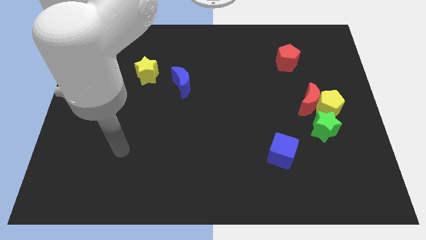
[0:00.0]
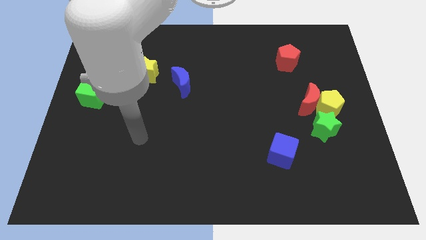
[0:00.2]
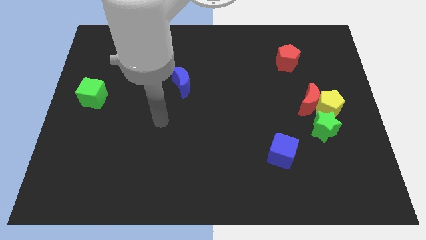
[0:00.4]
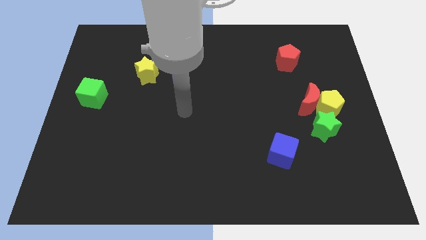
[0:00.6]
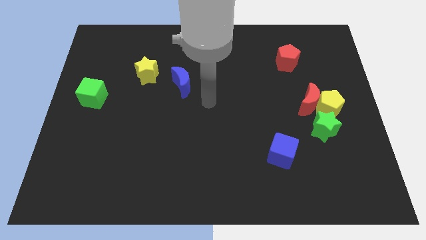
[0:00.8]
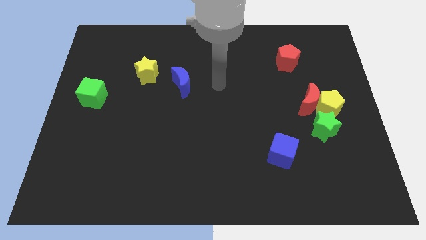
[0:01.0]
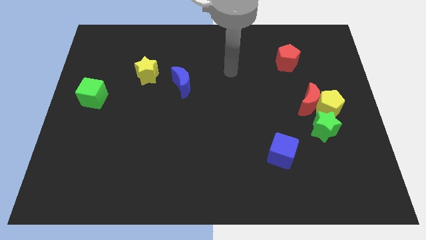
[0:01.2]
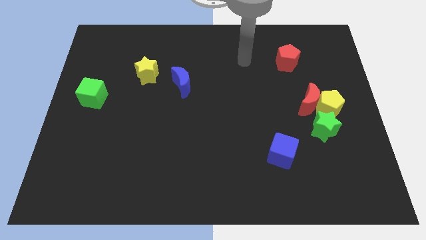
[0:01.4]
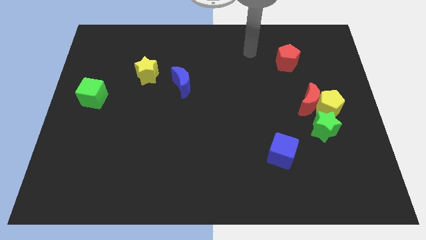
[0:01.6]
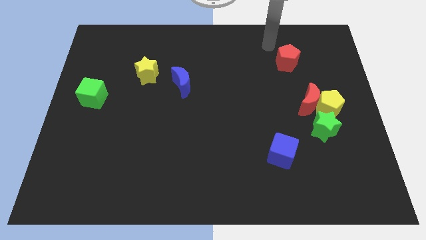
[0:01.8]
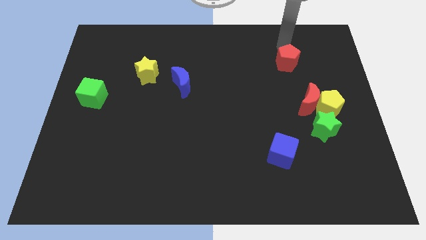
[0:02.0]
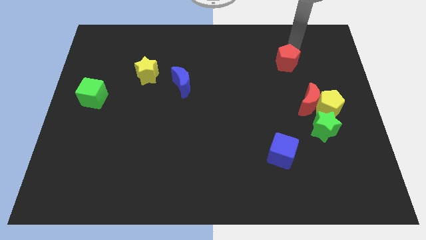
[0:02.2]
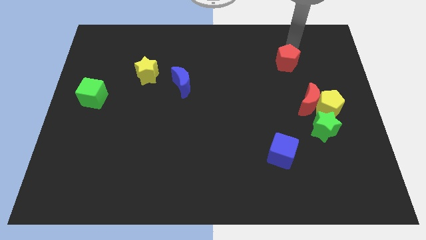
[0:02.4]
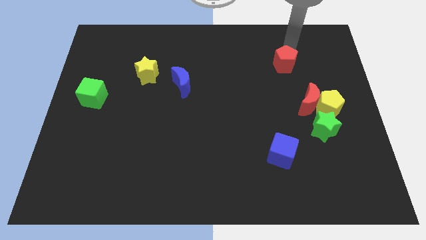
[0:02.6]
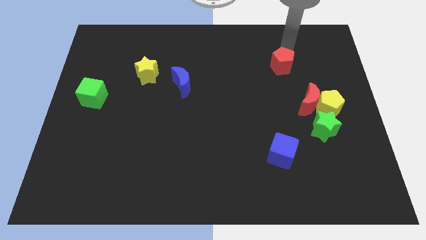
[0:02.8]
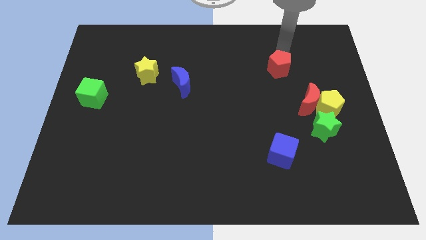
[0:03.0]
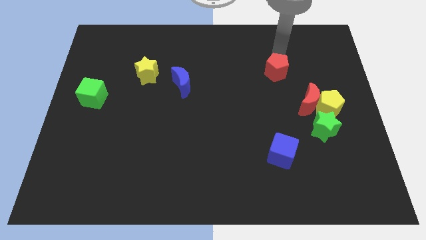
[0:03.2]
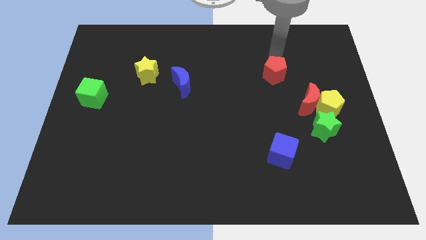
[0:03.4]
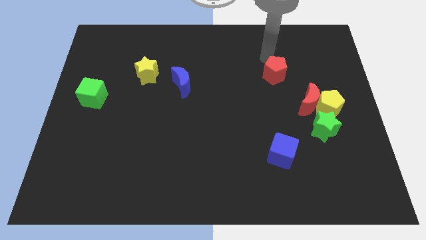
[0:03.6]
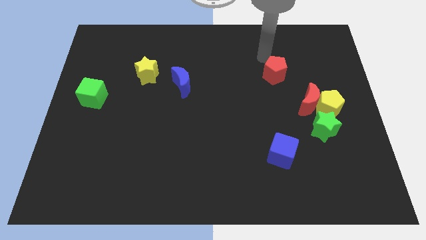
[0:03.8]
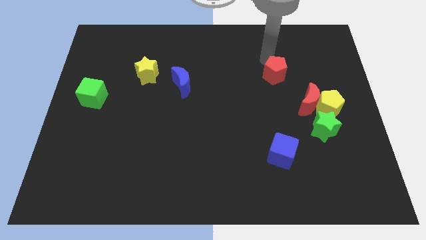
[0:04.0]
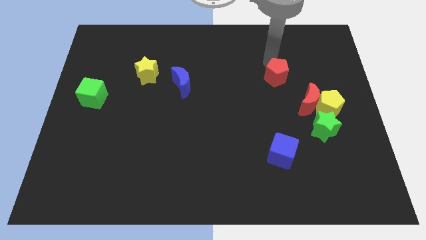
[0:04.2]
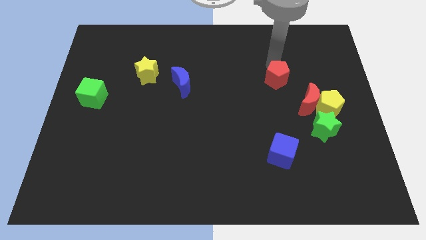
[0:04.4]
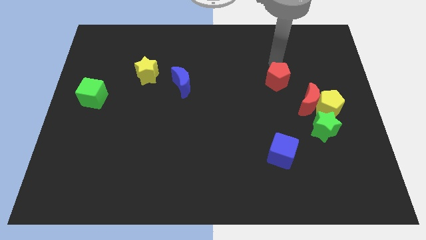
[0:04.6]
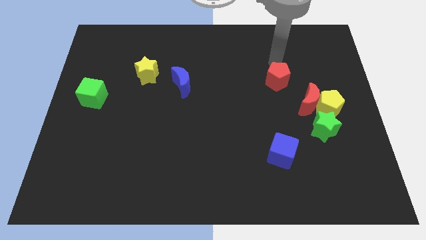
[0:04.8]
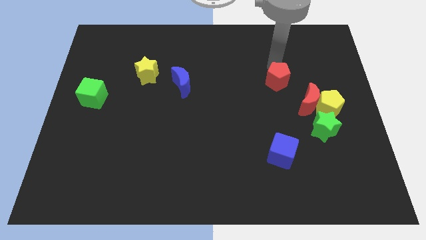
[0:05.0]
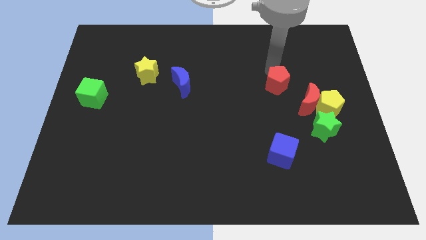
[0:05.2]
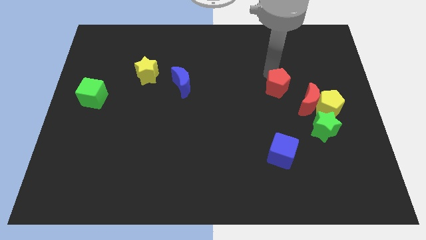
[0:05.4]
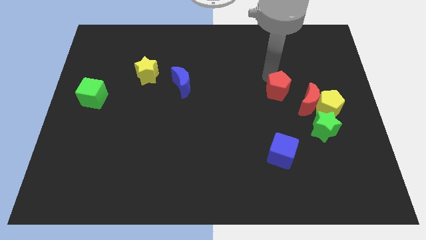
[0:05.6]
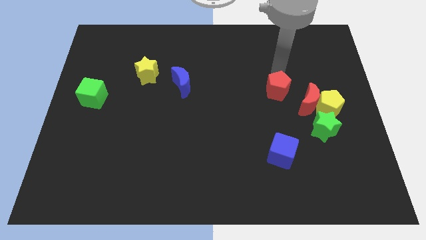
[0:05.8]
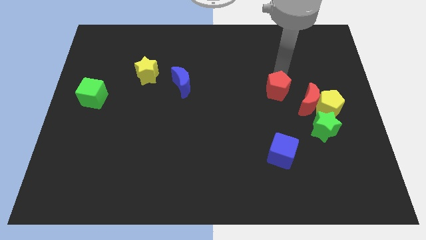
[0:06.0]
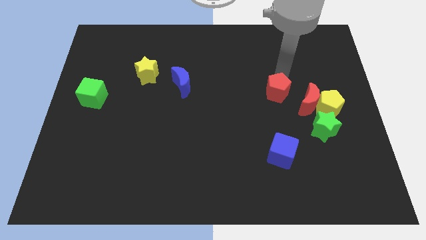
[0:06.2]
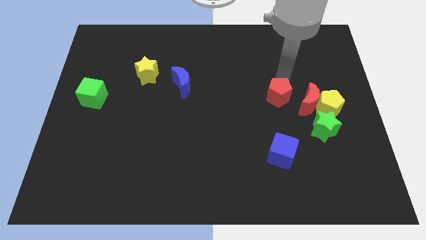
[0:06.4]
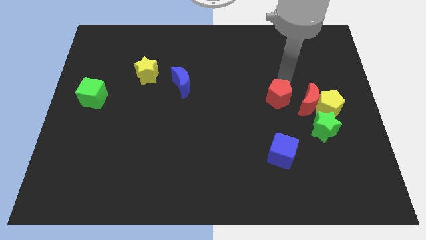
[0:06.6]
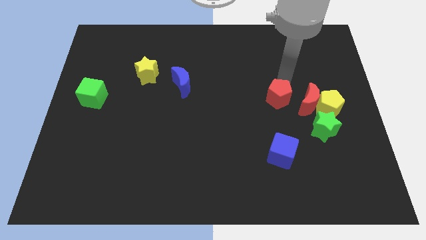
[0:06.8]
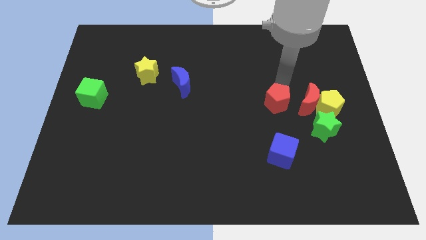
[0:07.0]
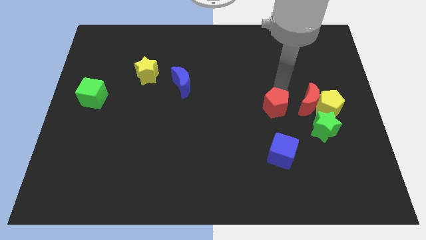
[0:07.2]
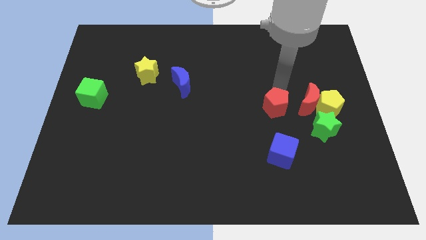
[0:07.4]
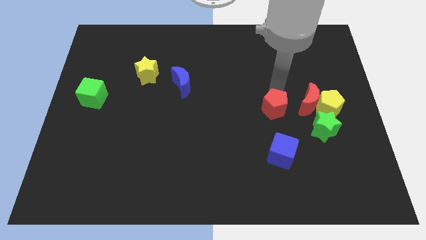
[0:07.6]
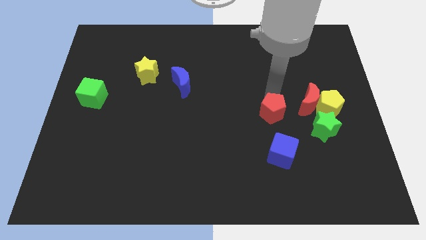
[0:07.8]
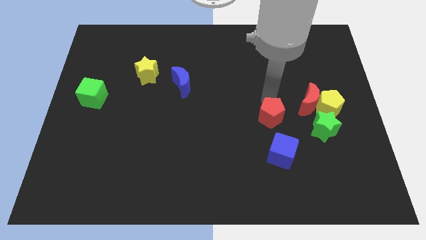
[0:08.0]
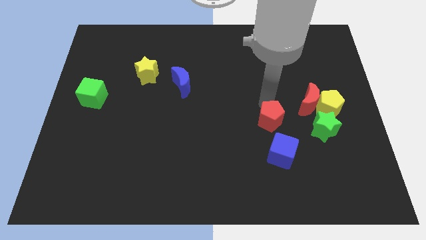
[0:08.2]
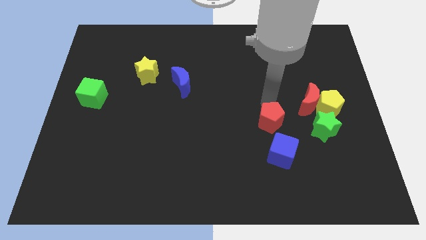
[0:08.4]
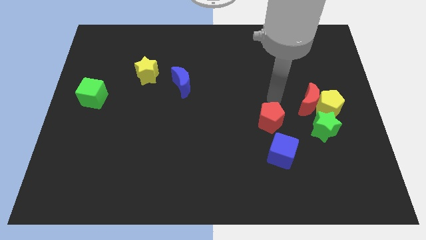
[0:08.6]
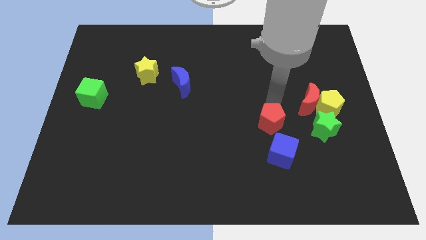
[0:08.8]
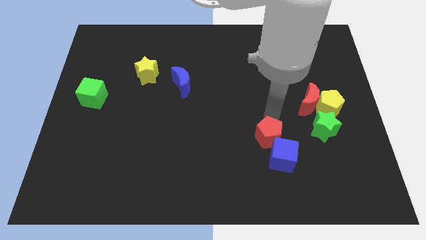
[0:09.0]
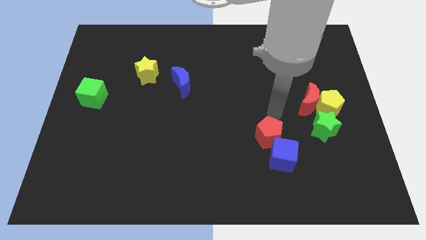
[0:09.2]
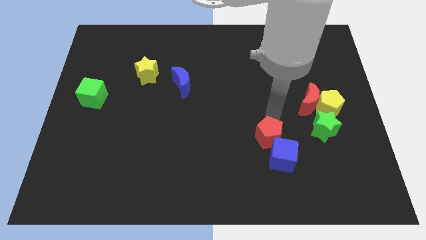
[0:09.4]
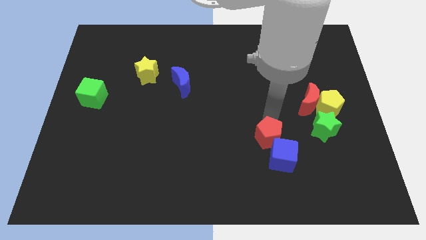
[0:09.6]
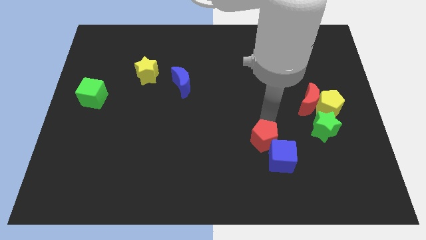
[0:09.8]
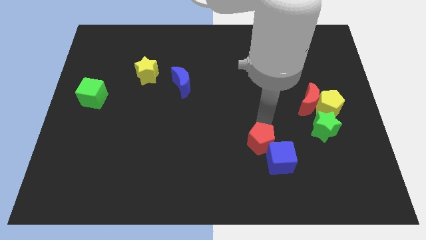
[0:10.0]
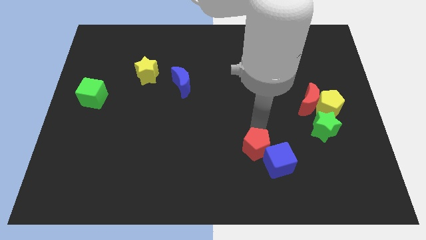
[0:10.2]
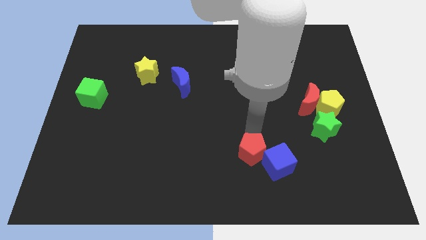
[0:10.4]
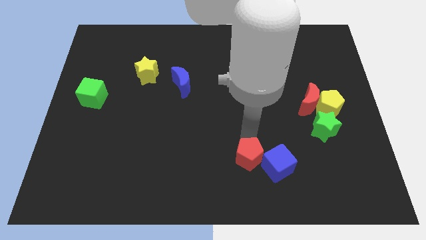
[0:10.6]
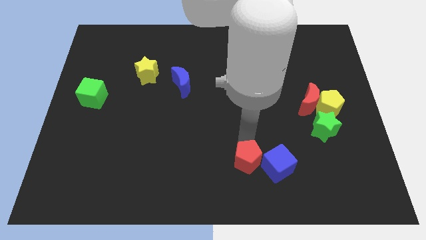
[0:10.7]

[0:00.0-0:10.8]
move the red pentagon to the bottom side

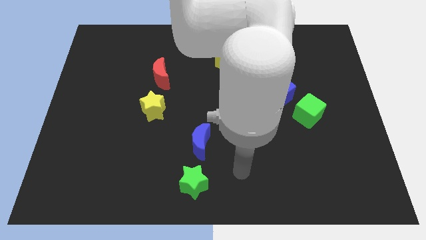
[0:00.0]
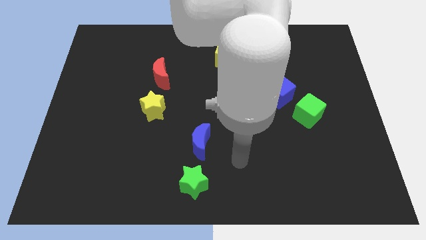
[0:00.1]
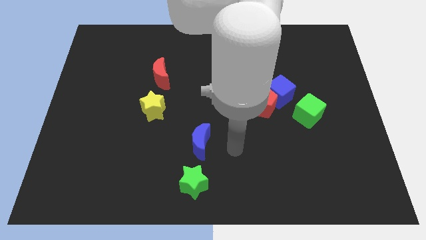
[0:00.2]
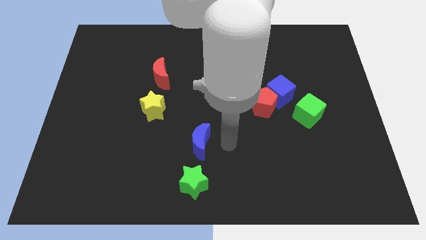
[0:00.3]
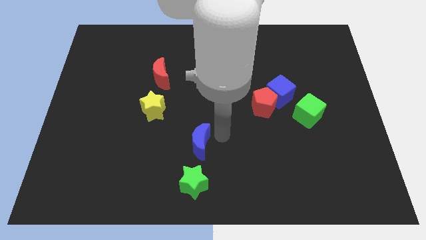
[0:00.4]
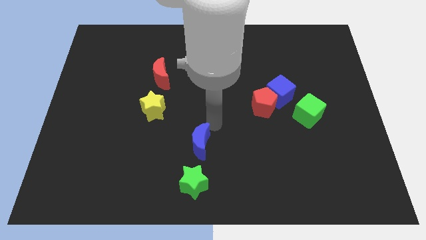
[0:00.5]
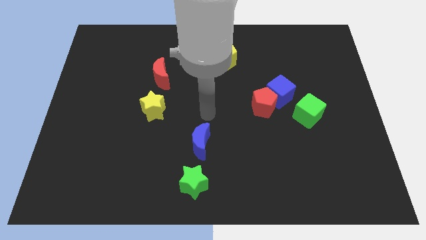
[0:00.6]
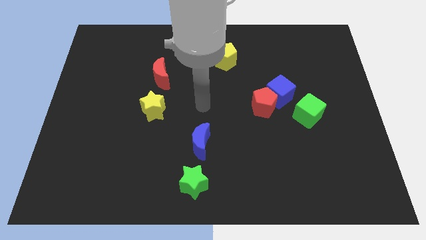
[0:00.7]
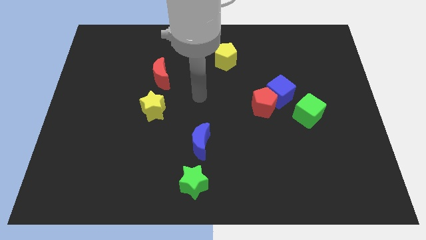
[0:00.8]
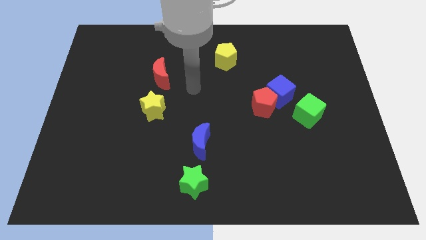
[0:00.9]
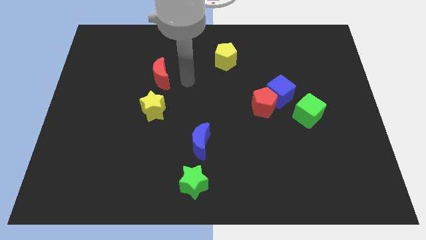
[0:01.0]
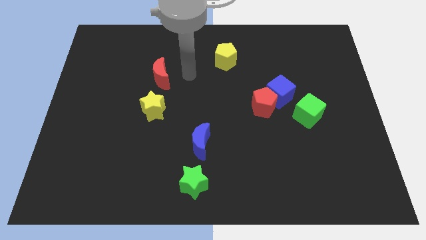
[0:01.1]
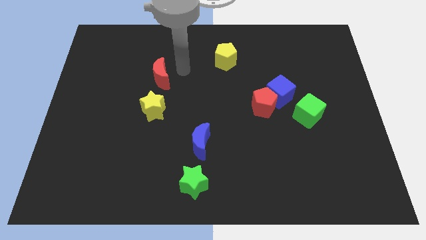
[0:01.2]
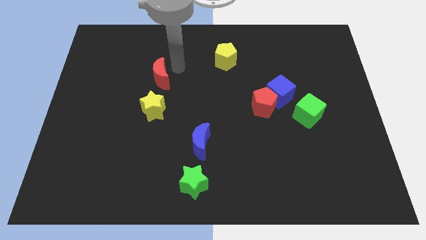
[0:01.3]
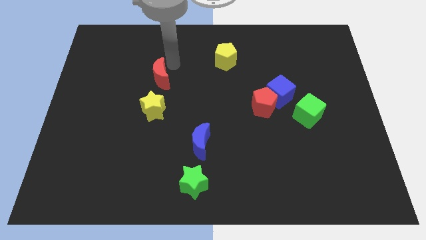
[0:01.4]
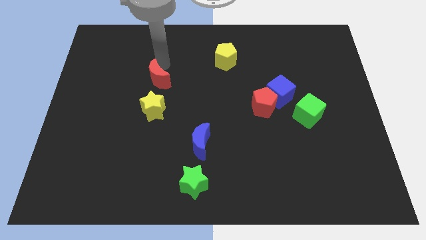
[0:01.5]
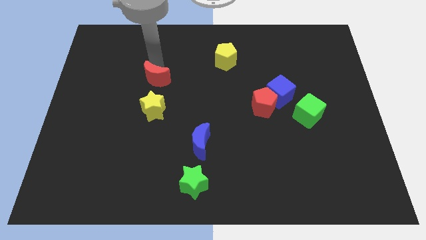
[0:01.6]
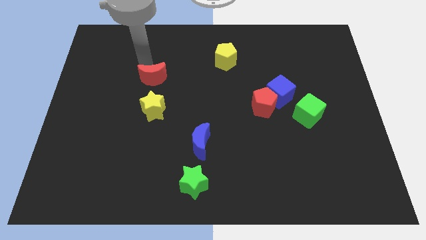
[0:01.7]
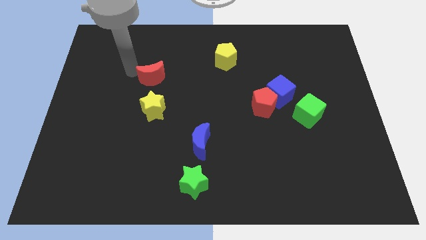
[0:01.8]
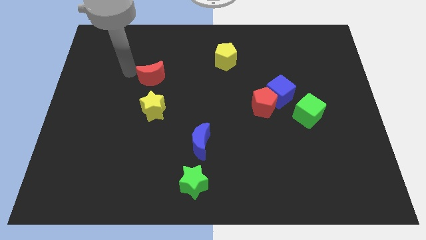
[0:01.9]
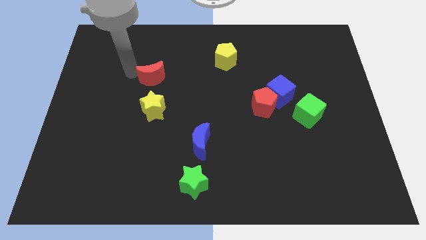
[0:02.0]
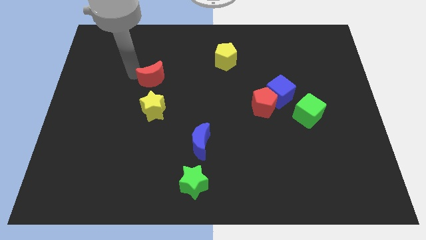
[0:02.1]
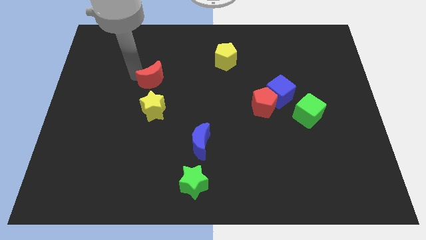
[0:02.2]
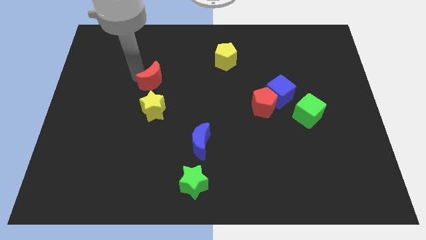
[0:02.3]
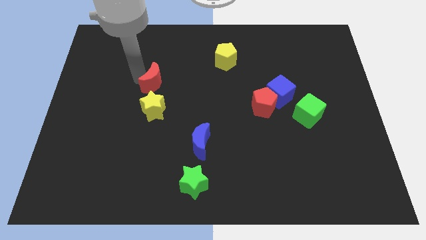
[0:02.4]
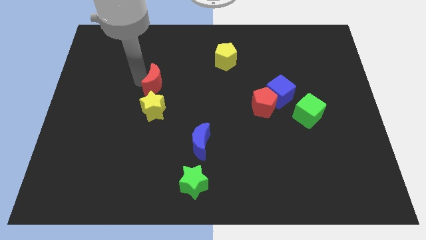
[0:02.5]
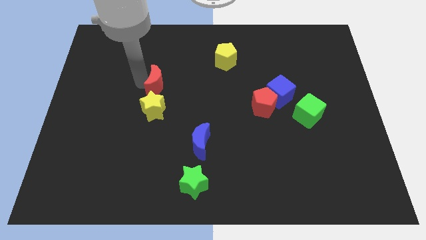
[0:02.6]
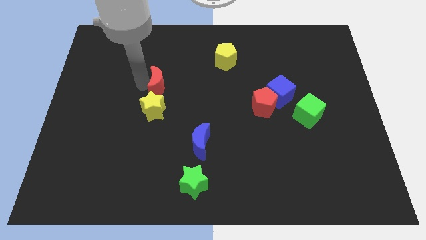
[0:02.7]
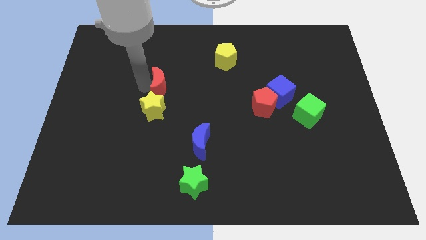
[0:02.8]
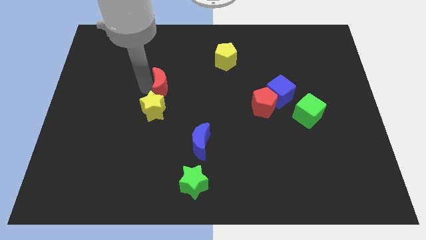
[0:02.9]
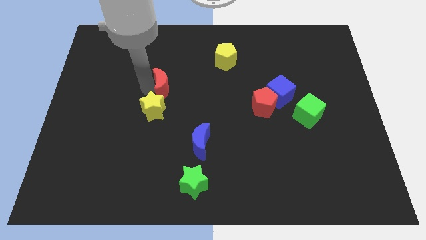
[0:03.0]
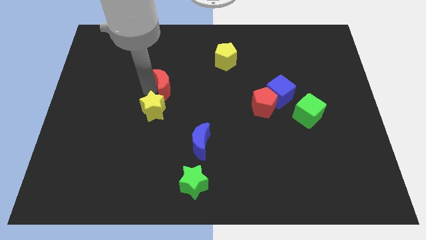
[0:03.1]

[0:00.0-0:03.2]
slide the red moon to the middle of the board
